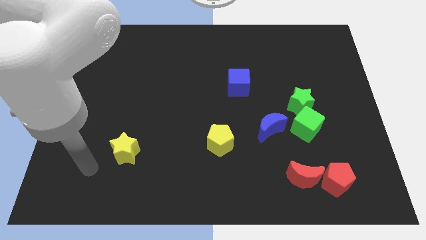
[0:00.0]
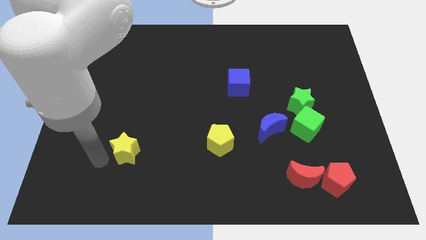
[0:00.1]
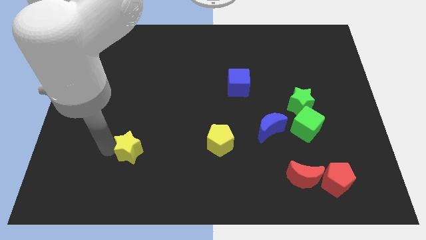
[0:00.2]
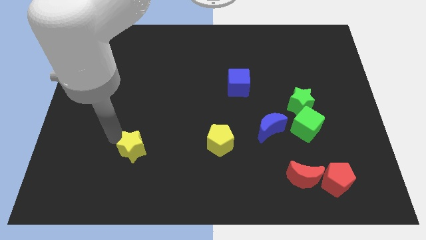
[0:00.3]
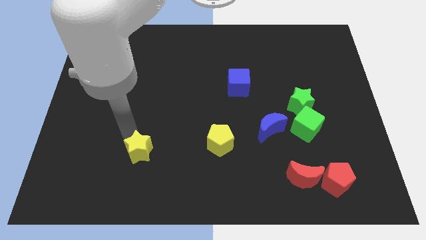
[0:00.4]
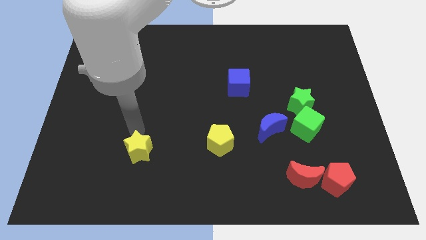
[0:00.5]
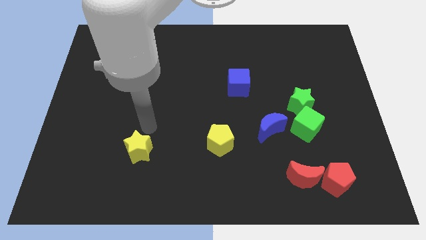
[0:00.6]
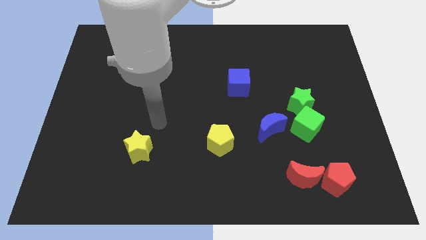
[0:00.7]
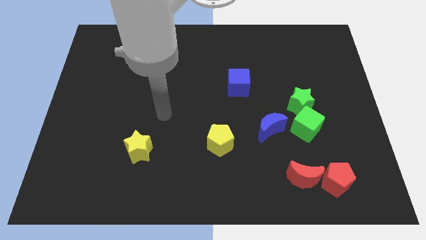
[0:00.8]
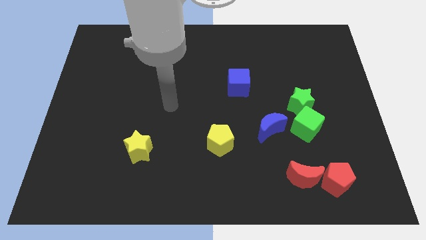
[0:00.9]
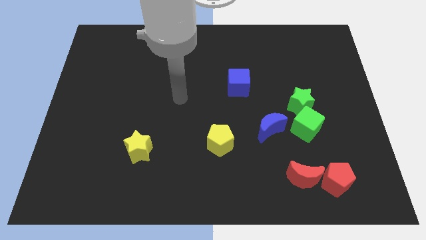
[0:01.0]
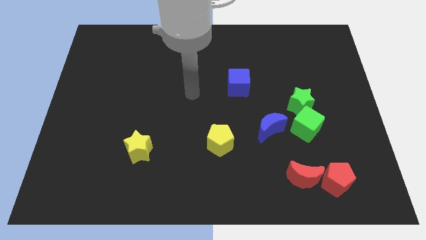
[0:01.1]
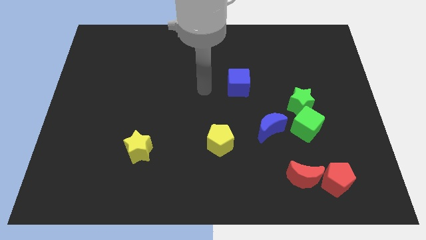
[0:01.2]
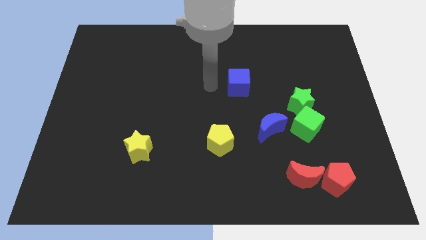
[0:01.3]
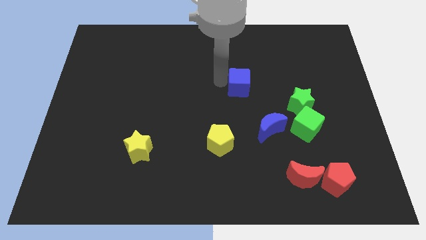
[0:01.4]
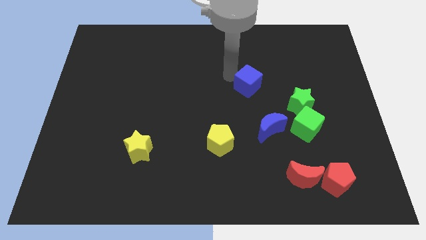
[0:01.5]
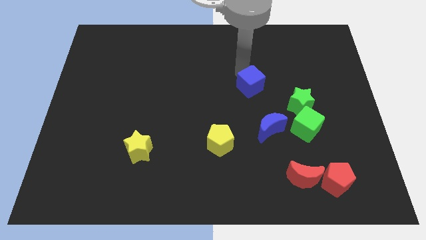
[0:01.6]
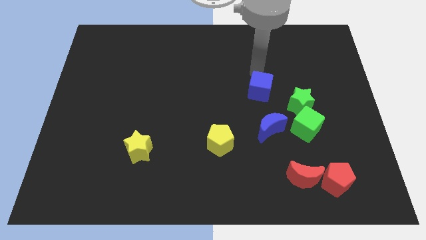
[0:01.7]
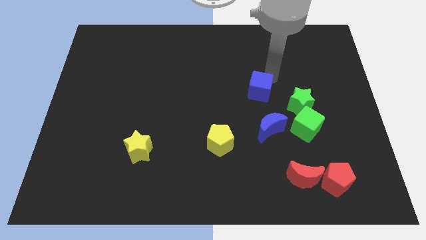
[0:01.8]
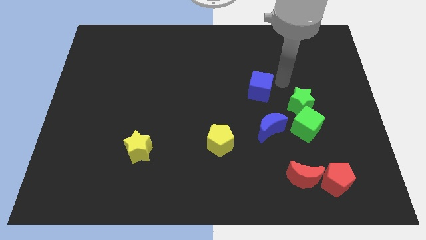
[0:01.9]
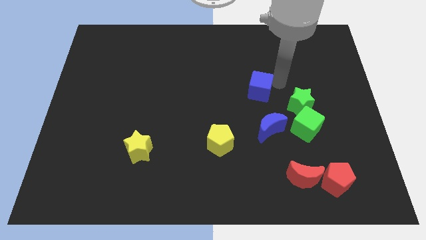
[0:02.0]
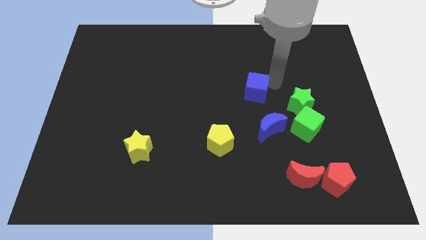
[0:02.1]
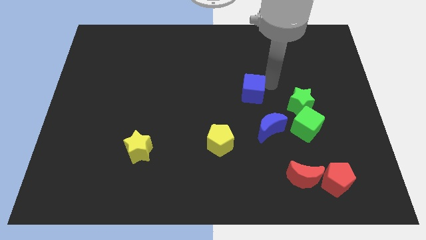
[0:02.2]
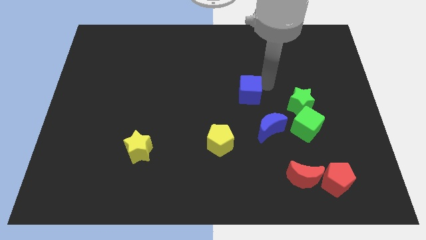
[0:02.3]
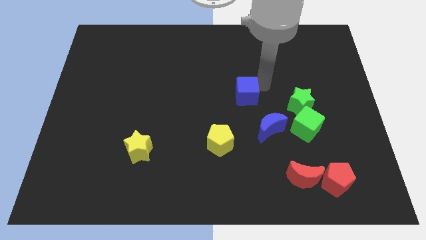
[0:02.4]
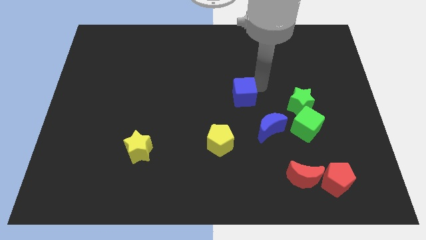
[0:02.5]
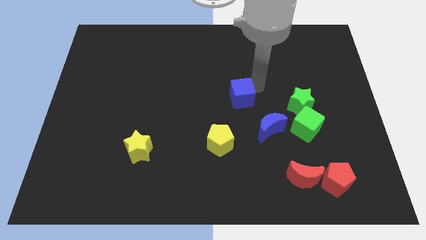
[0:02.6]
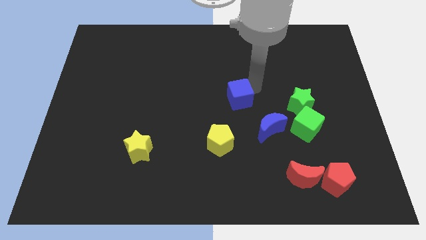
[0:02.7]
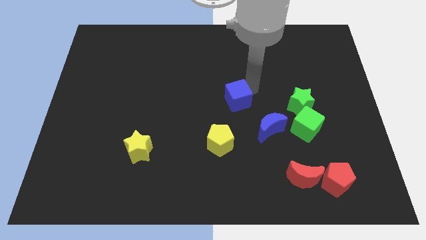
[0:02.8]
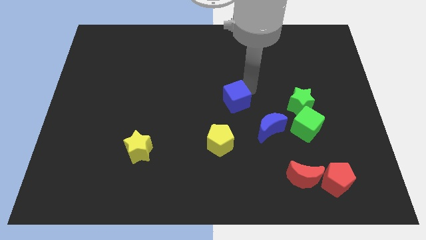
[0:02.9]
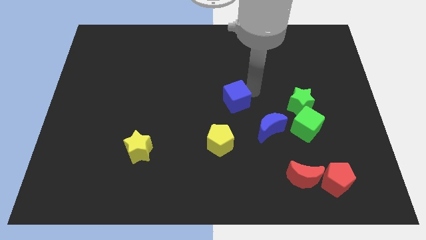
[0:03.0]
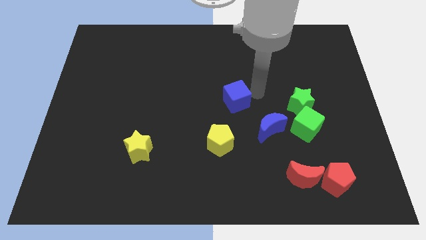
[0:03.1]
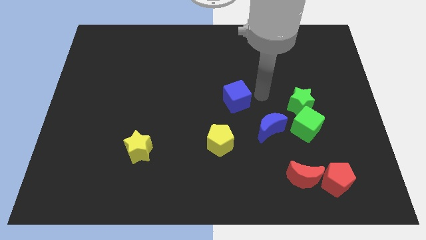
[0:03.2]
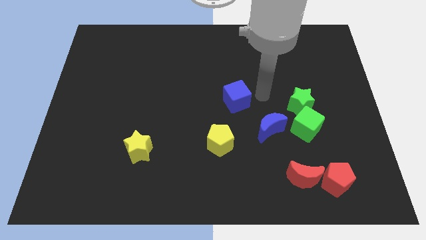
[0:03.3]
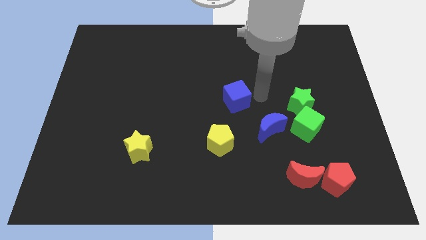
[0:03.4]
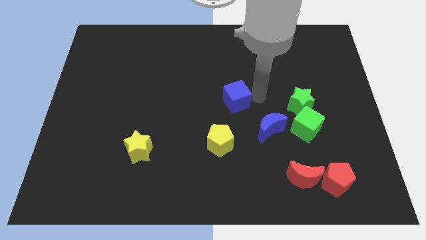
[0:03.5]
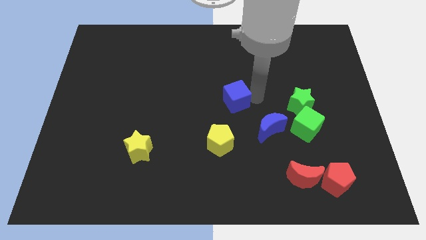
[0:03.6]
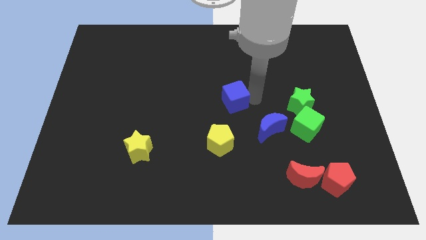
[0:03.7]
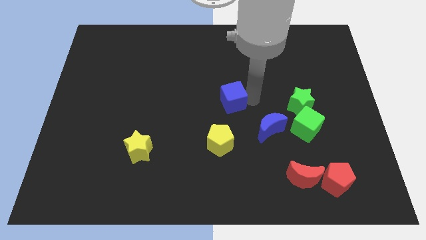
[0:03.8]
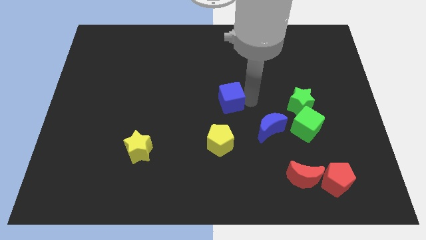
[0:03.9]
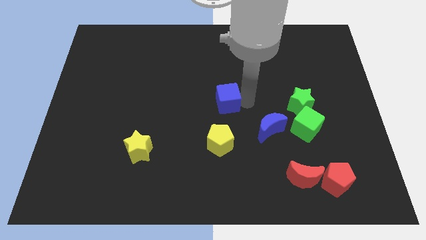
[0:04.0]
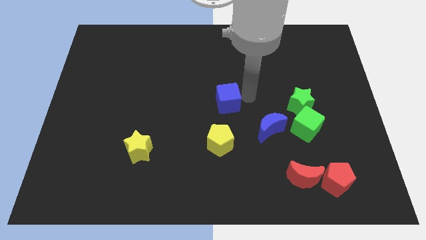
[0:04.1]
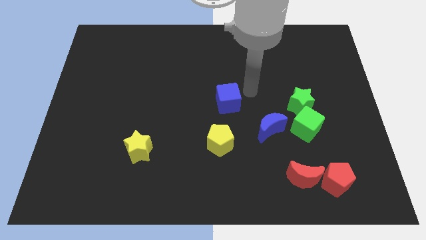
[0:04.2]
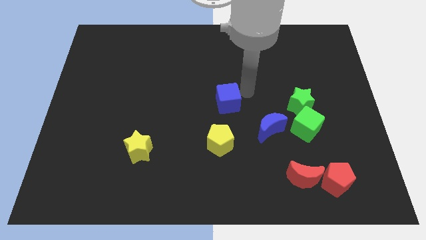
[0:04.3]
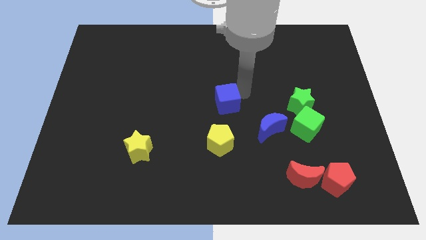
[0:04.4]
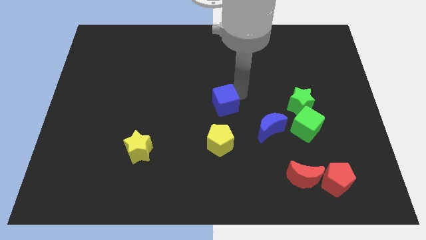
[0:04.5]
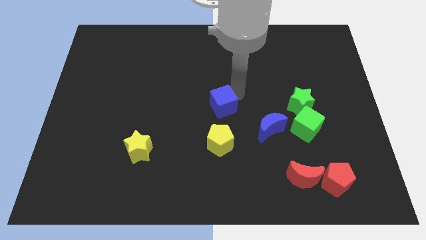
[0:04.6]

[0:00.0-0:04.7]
slightly move the blue cube diagonally down and left

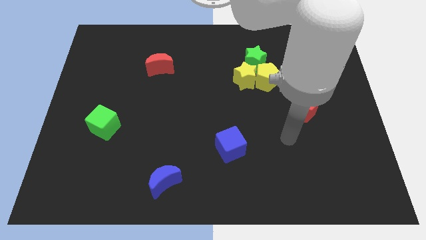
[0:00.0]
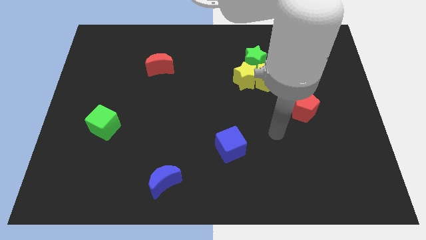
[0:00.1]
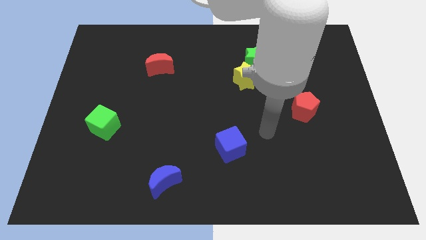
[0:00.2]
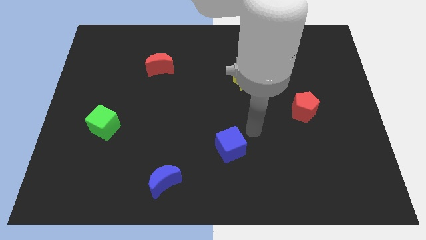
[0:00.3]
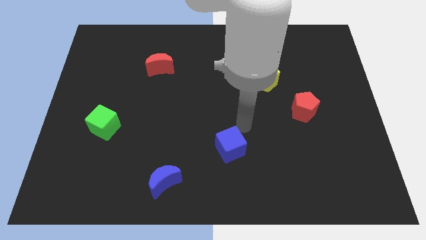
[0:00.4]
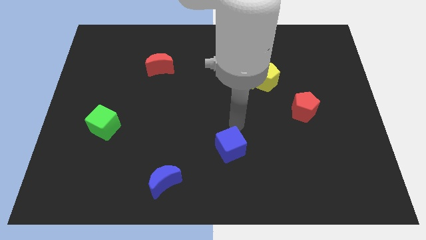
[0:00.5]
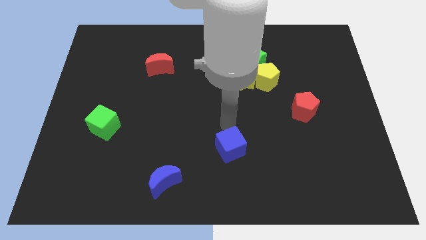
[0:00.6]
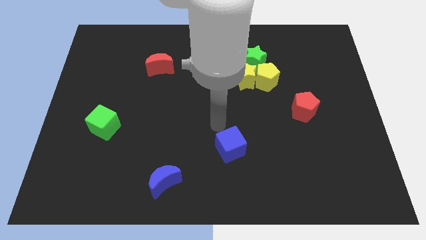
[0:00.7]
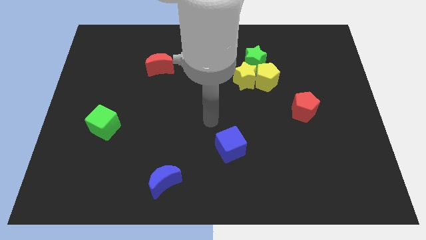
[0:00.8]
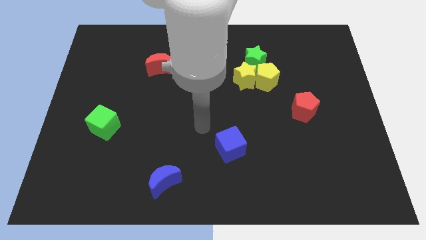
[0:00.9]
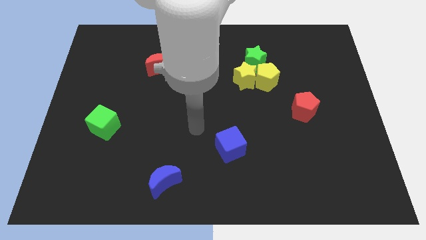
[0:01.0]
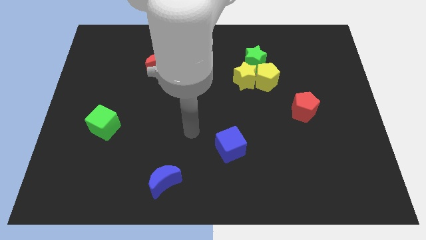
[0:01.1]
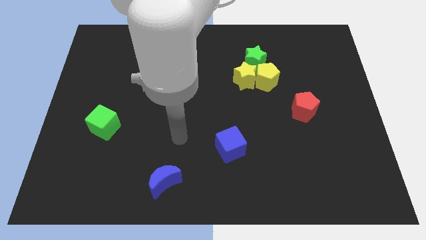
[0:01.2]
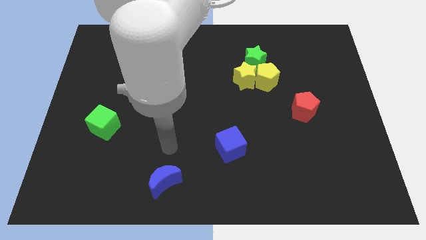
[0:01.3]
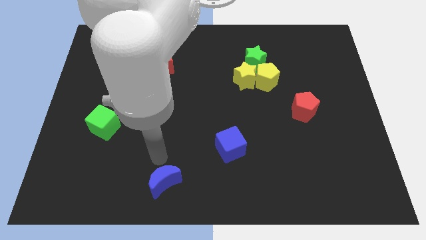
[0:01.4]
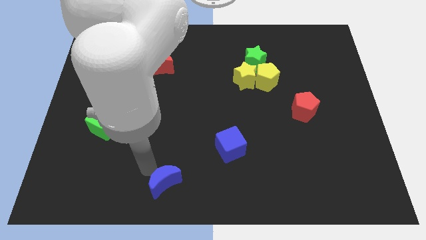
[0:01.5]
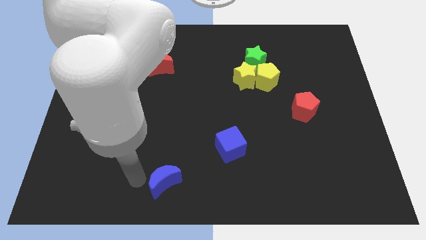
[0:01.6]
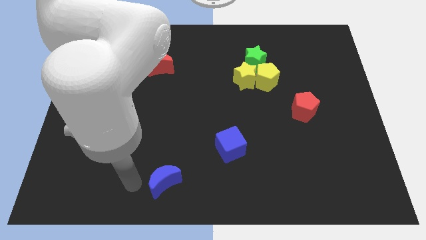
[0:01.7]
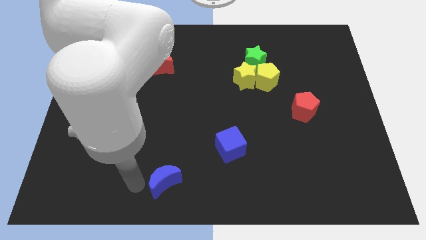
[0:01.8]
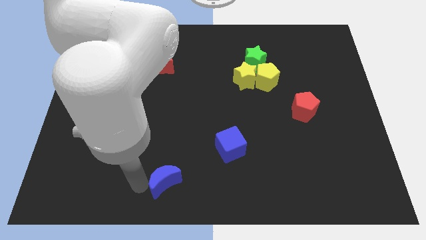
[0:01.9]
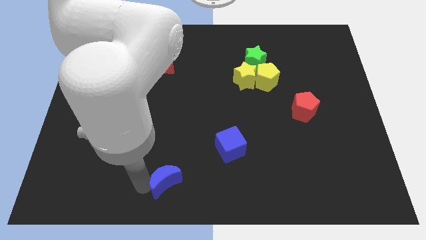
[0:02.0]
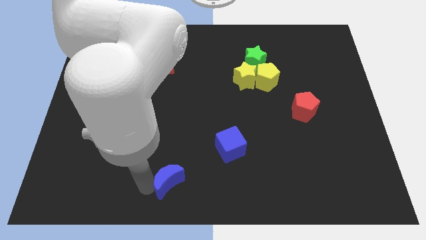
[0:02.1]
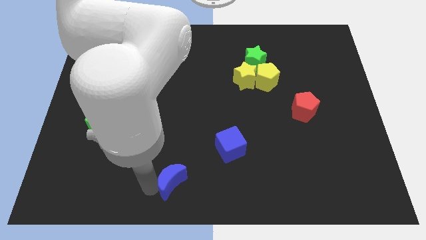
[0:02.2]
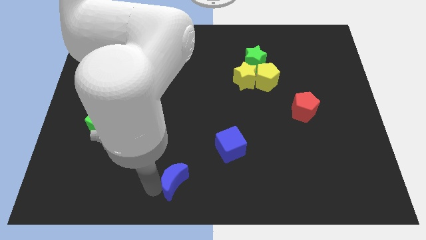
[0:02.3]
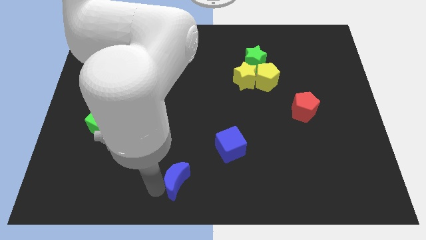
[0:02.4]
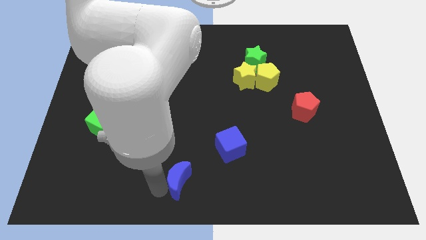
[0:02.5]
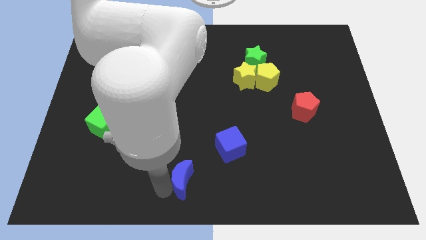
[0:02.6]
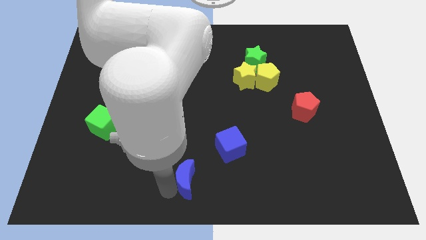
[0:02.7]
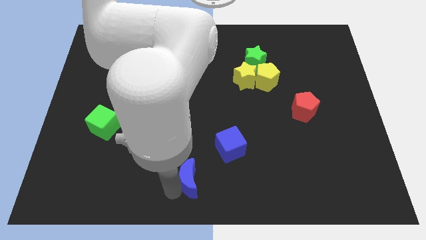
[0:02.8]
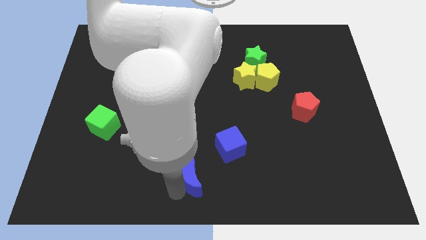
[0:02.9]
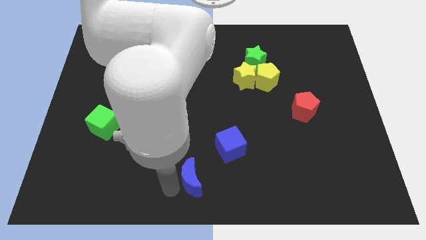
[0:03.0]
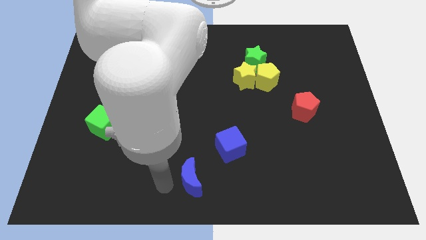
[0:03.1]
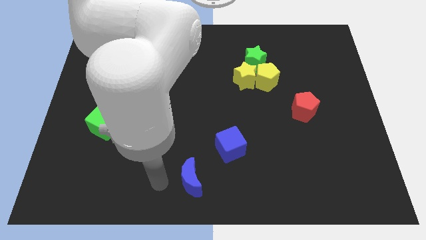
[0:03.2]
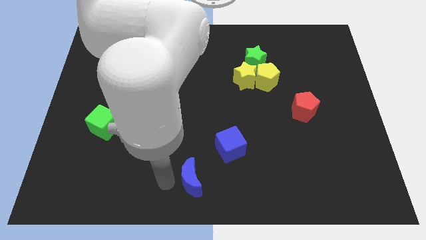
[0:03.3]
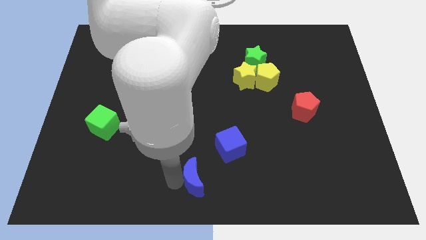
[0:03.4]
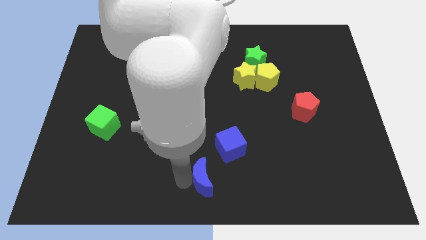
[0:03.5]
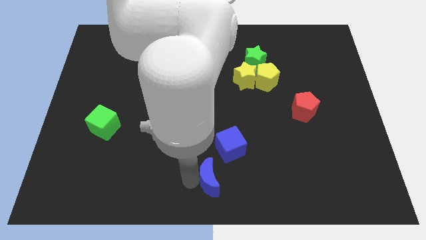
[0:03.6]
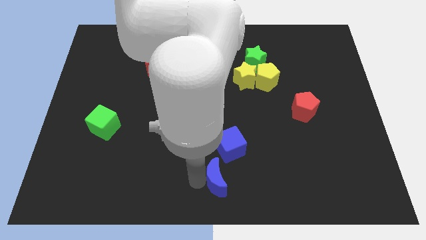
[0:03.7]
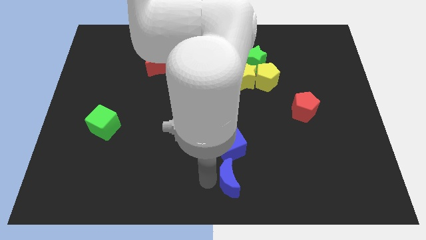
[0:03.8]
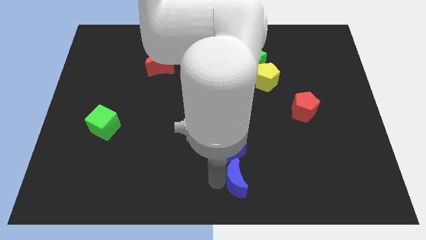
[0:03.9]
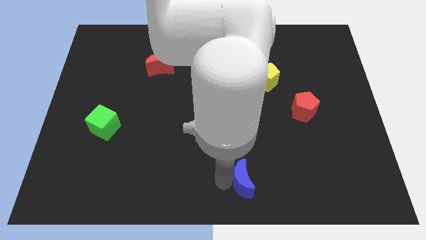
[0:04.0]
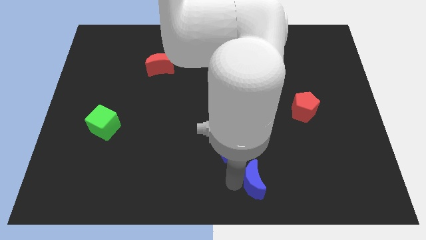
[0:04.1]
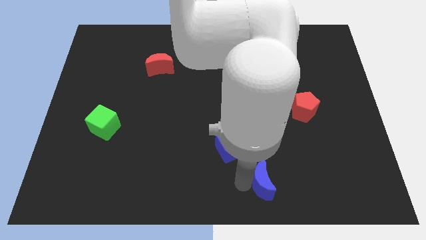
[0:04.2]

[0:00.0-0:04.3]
slide the blue moon right
